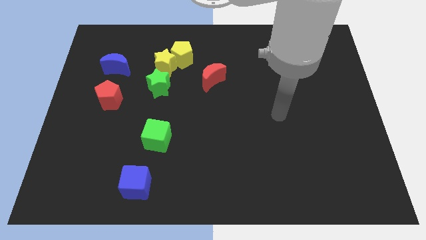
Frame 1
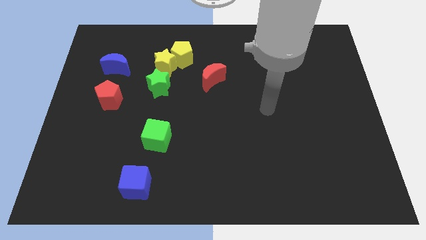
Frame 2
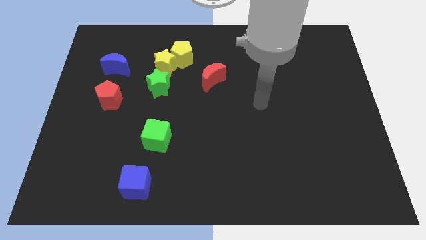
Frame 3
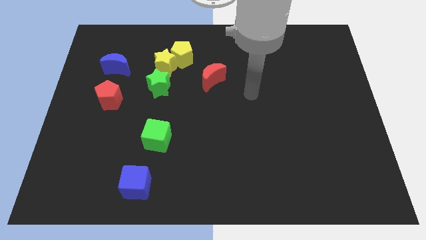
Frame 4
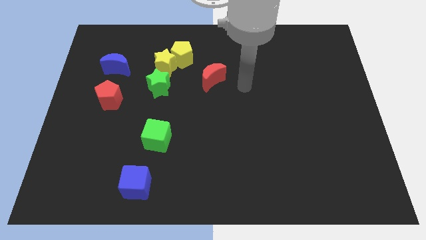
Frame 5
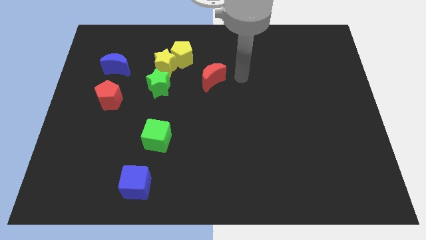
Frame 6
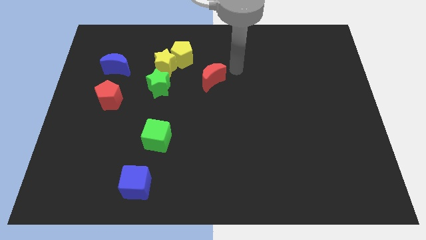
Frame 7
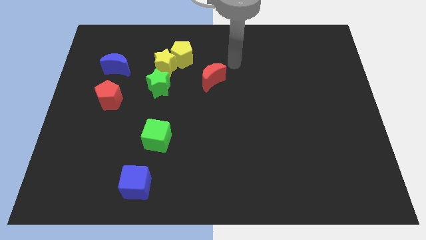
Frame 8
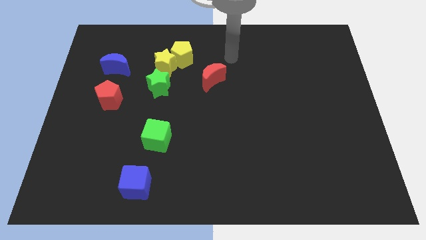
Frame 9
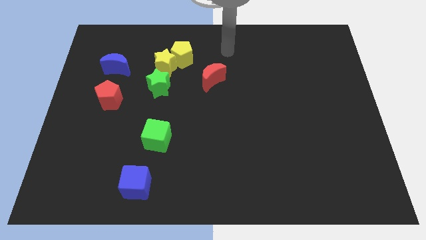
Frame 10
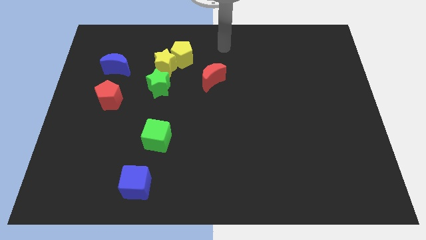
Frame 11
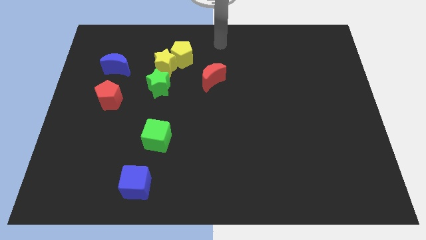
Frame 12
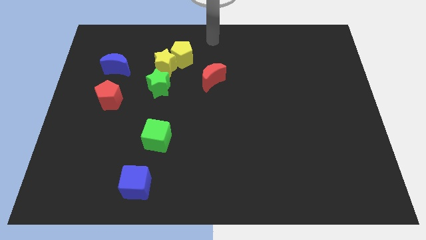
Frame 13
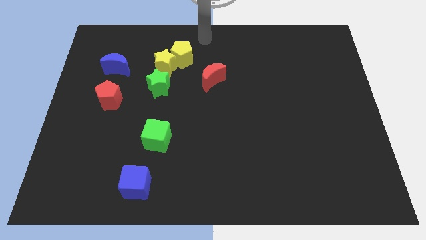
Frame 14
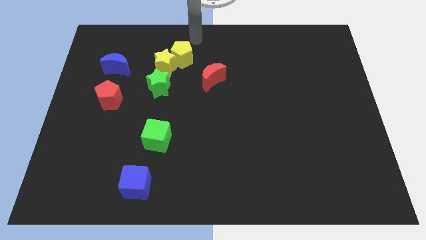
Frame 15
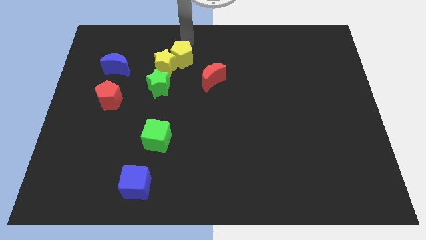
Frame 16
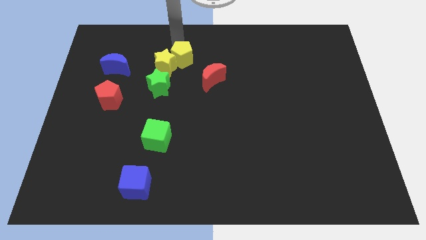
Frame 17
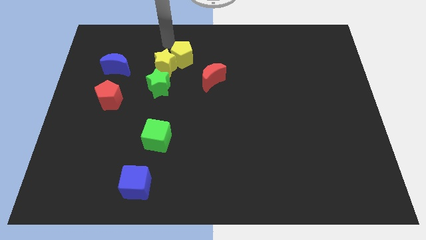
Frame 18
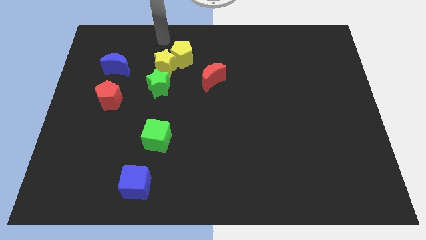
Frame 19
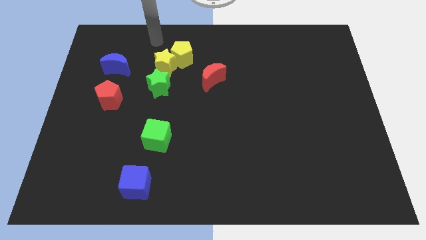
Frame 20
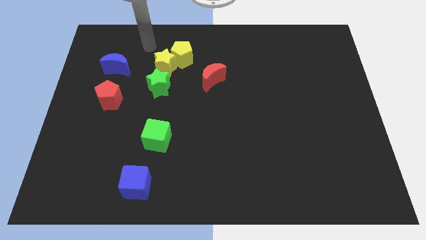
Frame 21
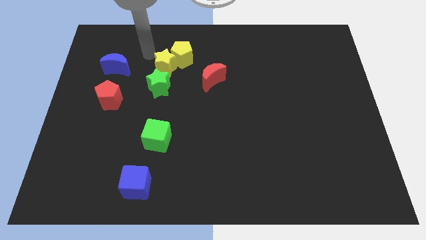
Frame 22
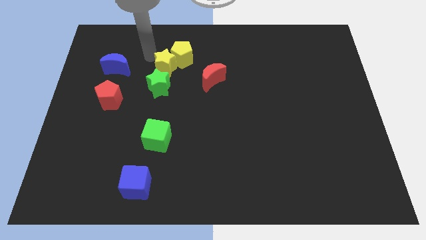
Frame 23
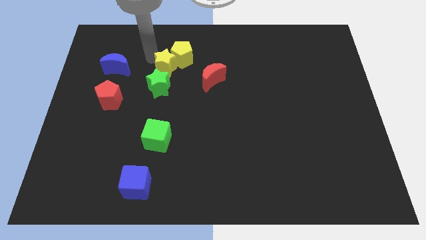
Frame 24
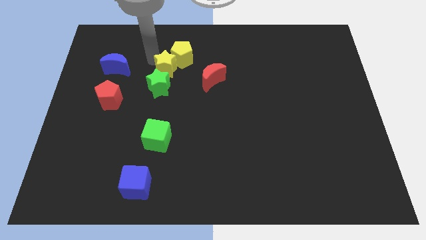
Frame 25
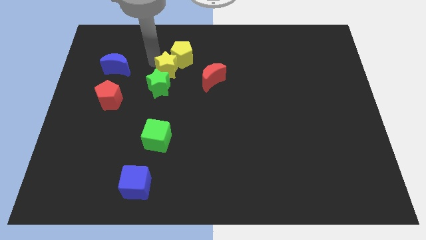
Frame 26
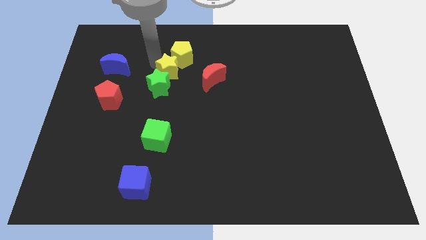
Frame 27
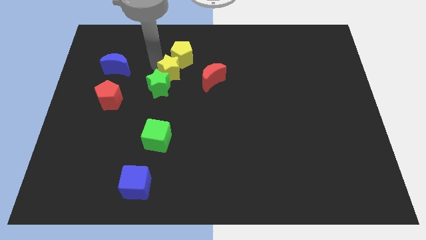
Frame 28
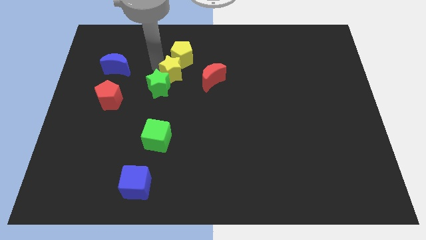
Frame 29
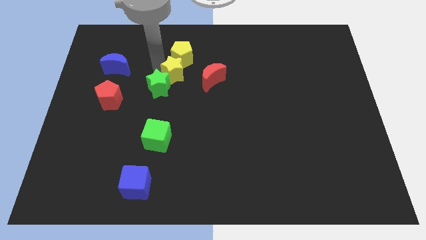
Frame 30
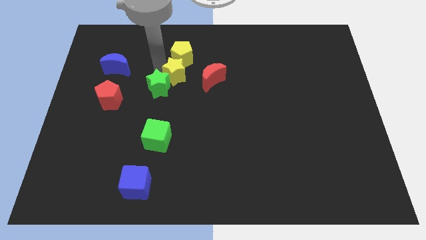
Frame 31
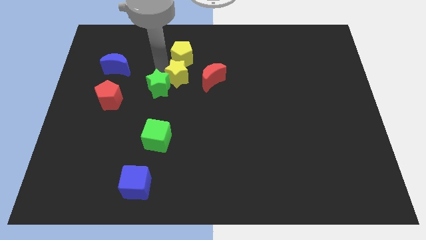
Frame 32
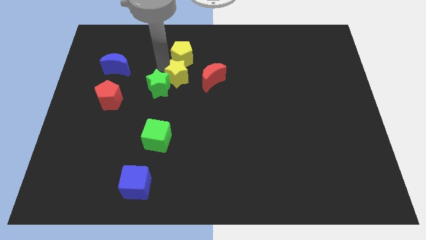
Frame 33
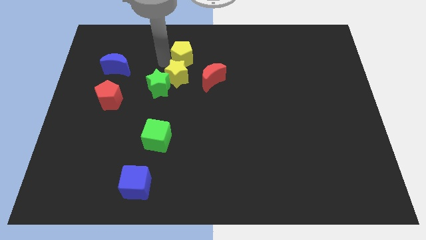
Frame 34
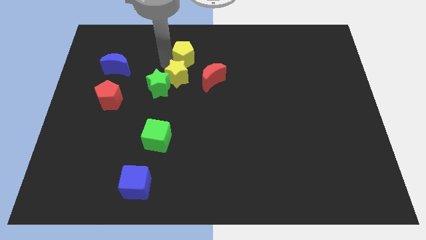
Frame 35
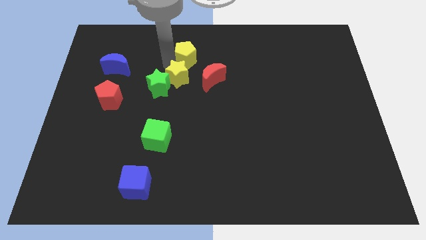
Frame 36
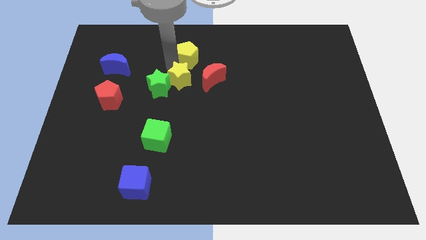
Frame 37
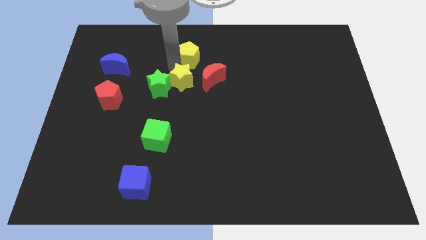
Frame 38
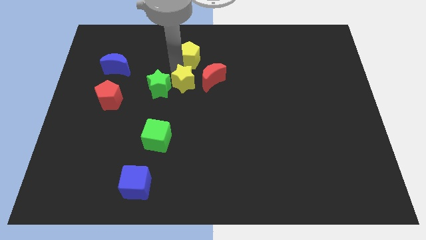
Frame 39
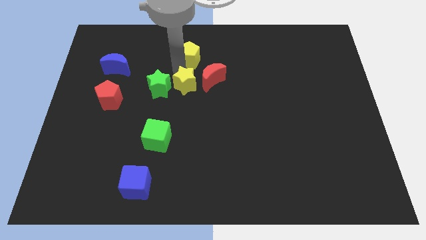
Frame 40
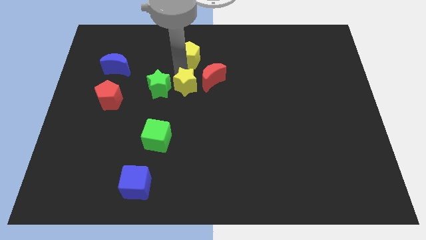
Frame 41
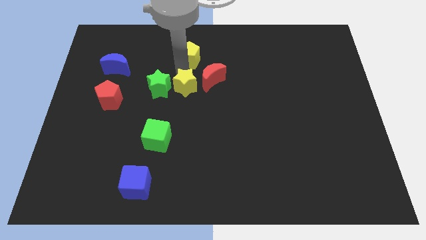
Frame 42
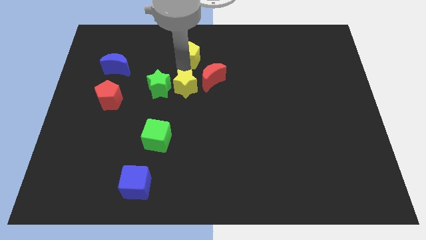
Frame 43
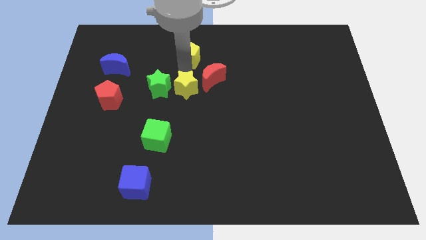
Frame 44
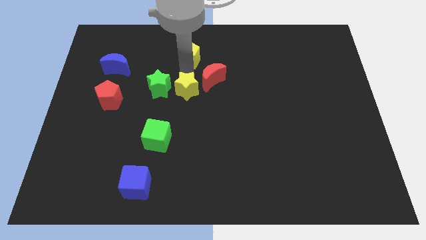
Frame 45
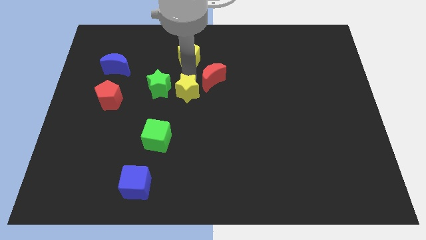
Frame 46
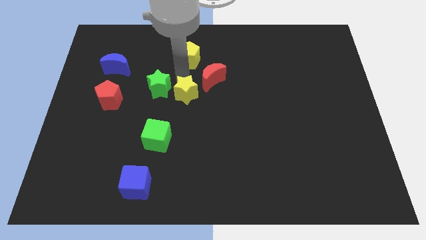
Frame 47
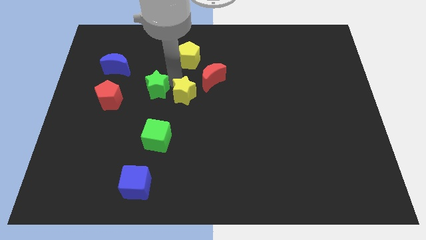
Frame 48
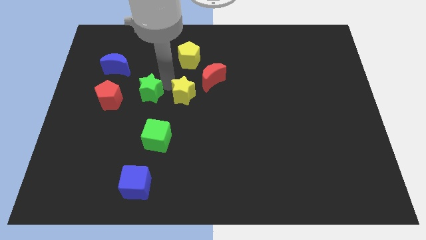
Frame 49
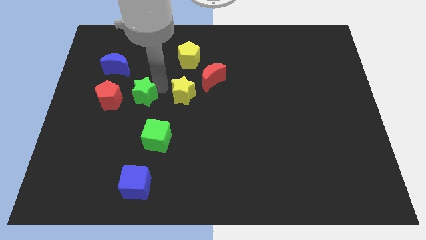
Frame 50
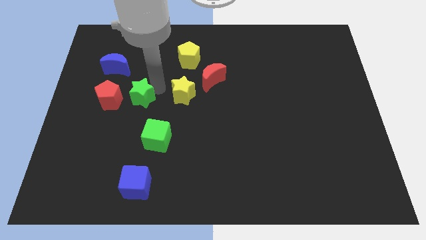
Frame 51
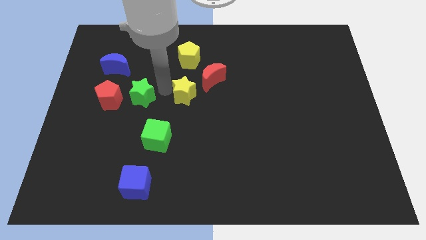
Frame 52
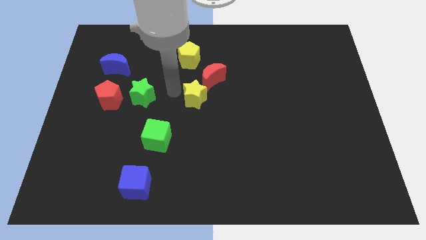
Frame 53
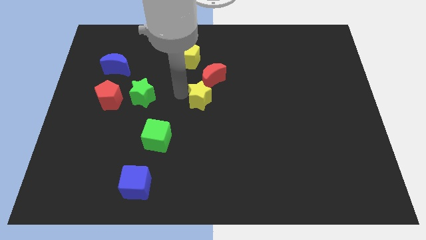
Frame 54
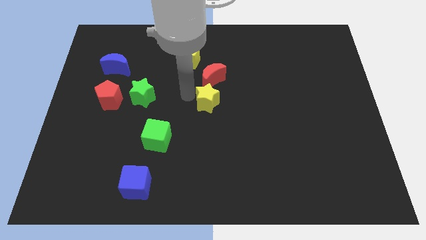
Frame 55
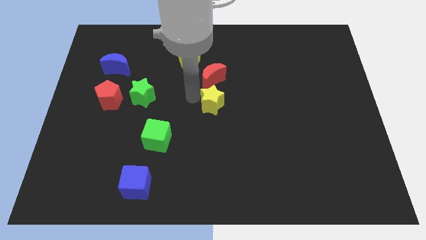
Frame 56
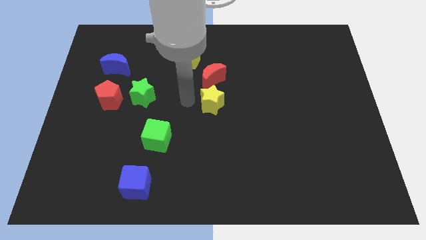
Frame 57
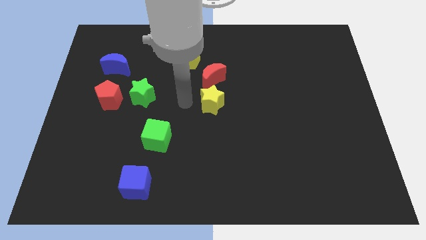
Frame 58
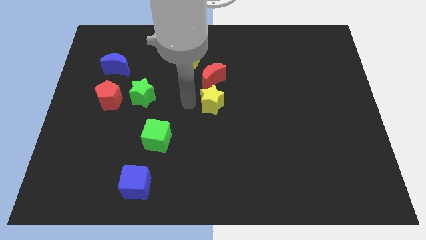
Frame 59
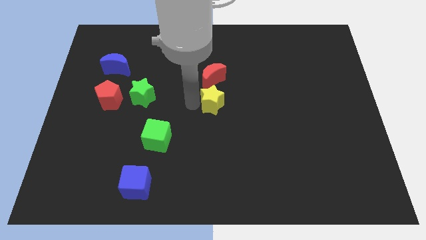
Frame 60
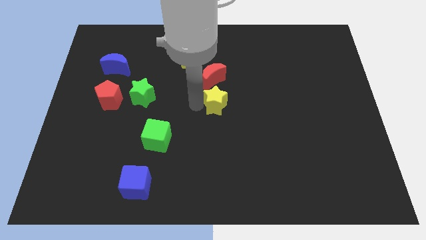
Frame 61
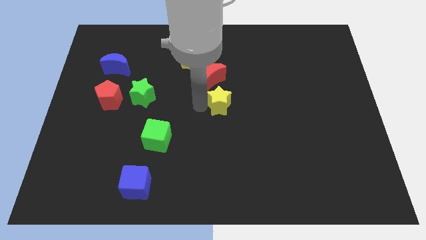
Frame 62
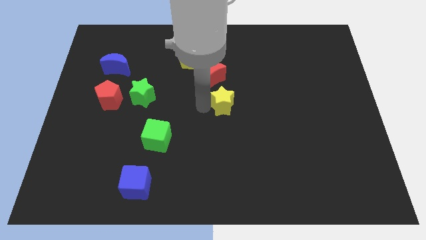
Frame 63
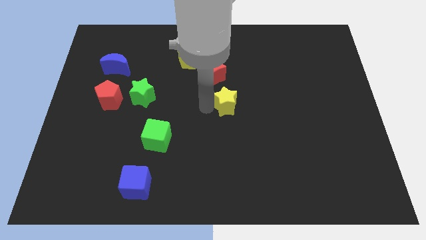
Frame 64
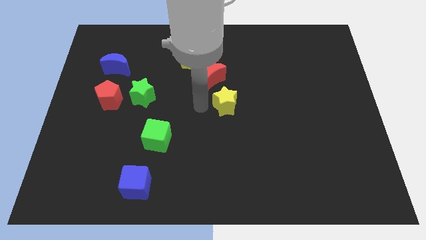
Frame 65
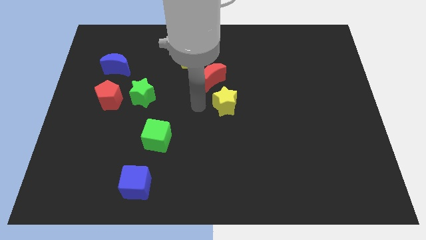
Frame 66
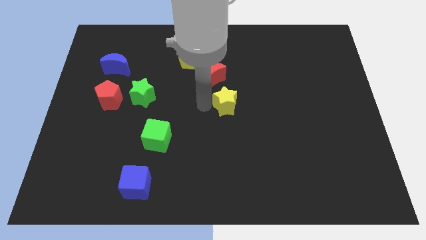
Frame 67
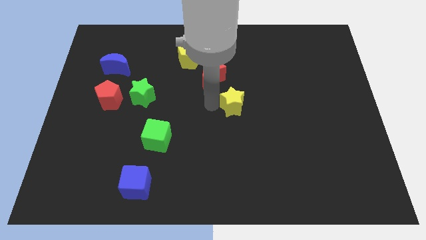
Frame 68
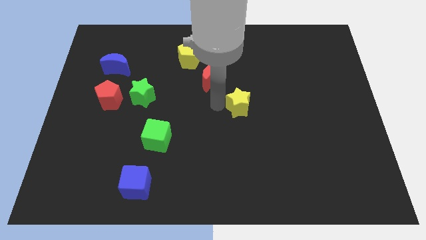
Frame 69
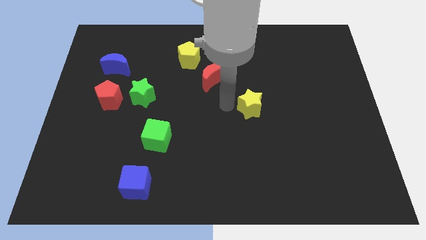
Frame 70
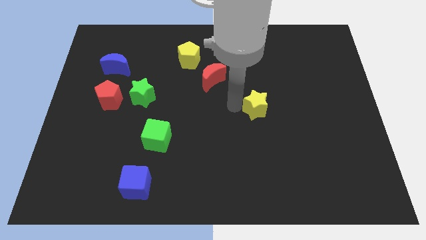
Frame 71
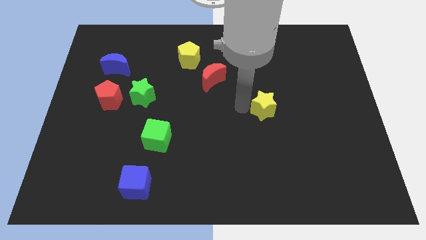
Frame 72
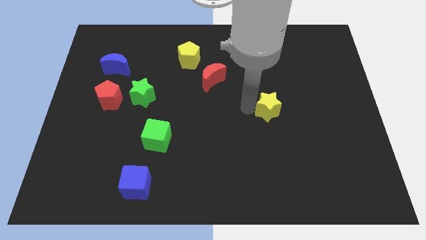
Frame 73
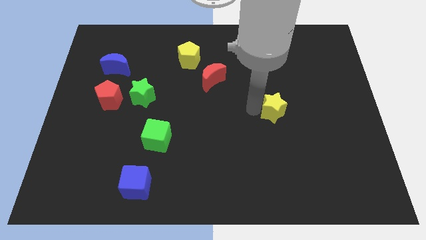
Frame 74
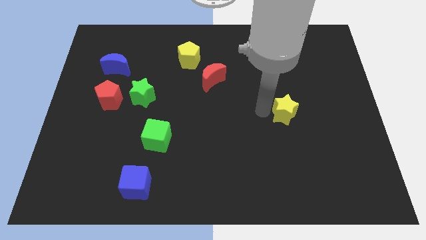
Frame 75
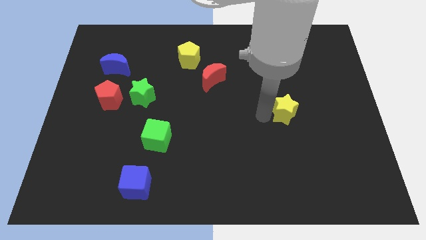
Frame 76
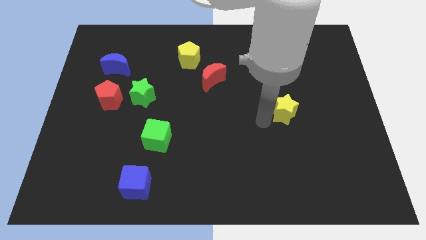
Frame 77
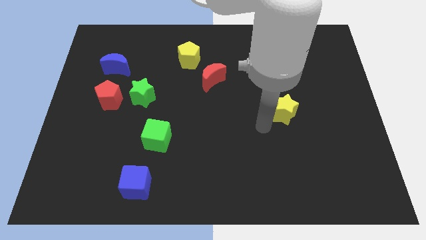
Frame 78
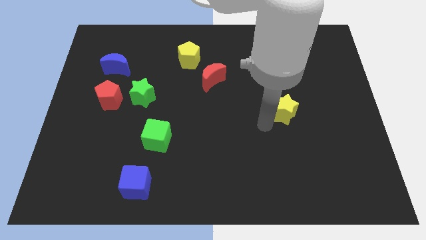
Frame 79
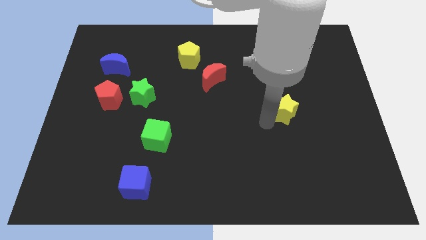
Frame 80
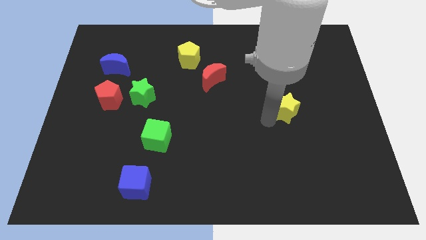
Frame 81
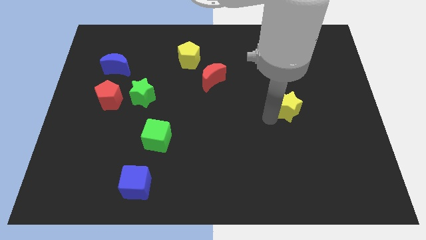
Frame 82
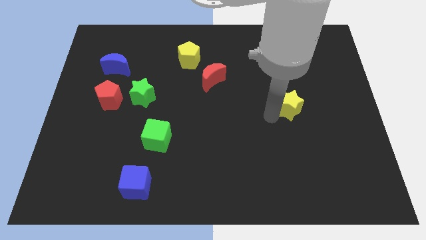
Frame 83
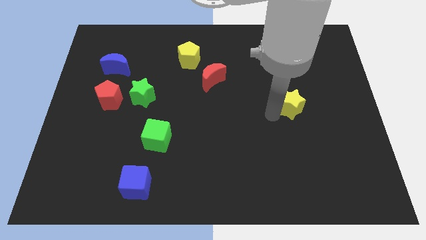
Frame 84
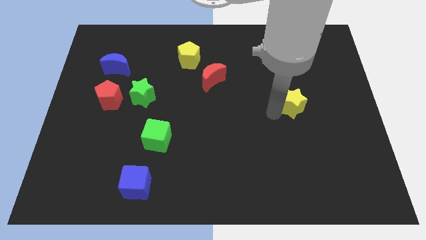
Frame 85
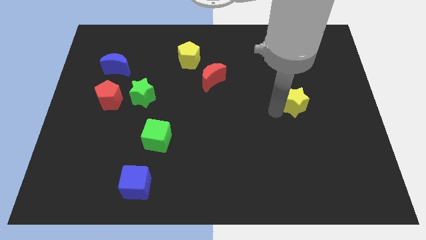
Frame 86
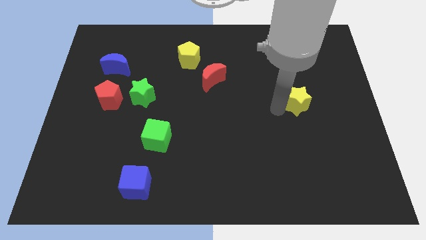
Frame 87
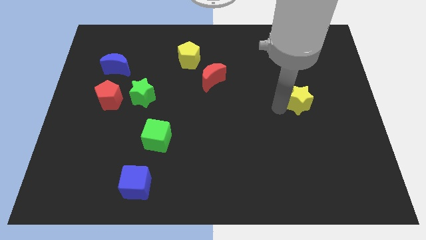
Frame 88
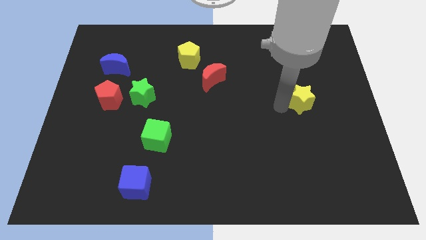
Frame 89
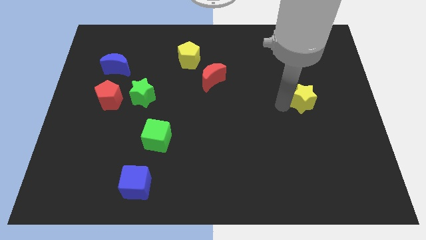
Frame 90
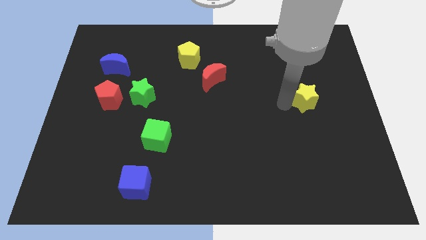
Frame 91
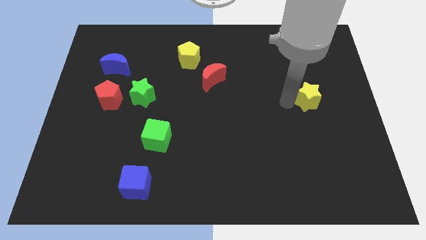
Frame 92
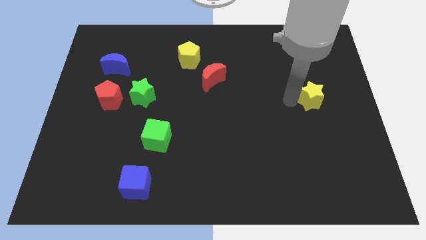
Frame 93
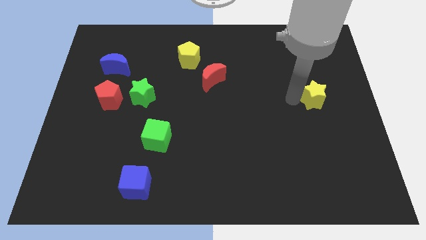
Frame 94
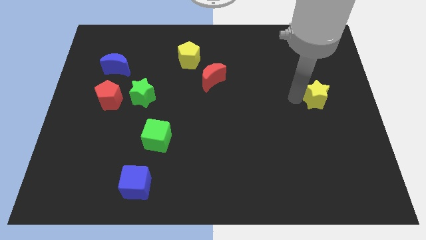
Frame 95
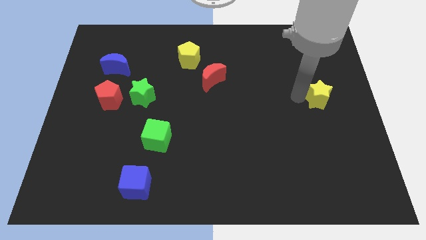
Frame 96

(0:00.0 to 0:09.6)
push the yellow star to the right side
